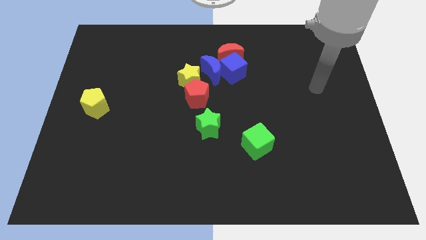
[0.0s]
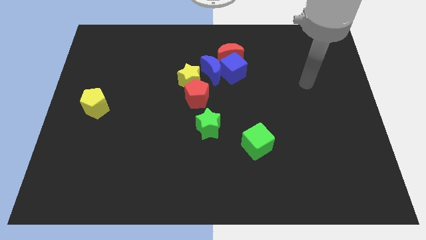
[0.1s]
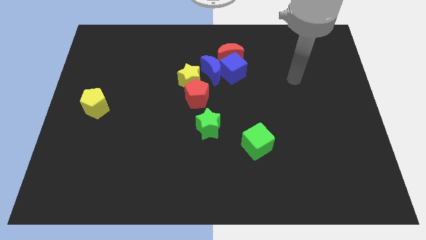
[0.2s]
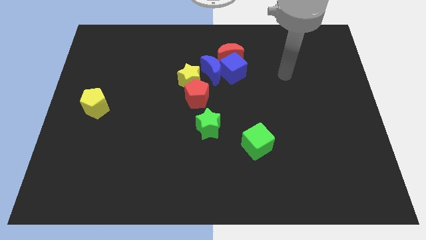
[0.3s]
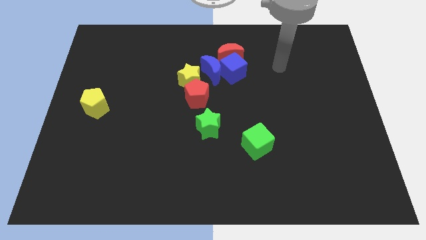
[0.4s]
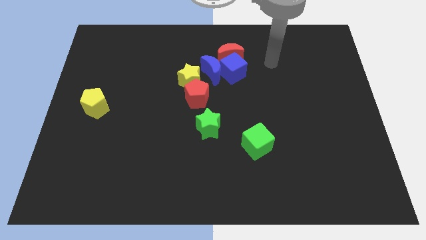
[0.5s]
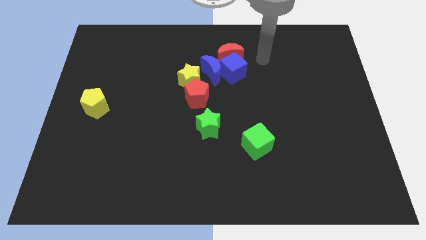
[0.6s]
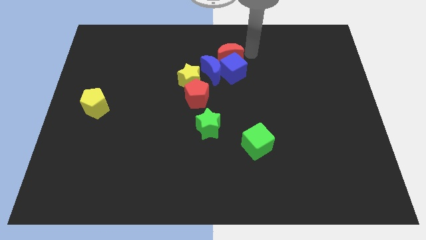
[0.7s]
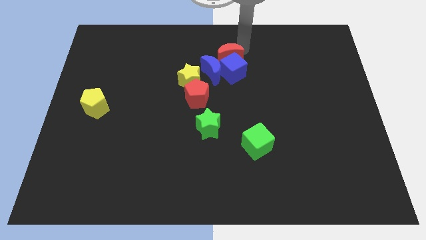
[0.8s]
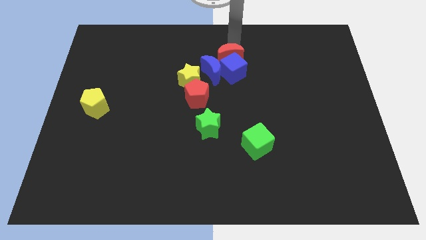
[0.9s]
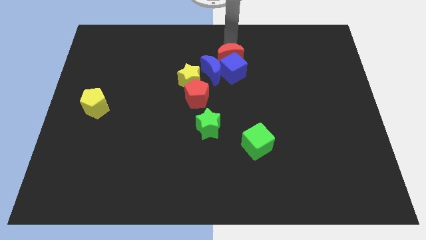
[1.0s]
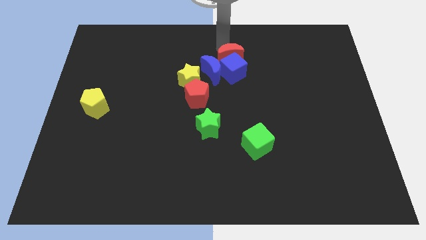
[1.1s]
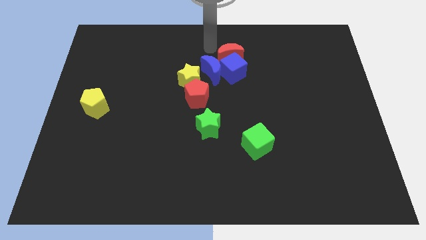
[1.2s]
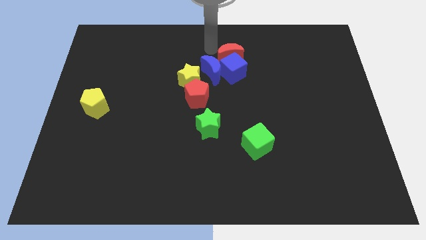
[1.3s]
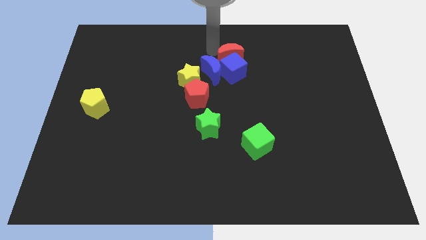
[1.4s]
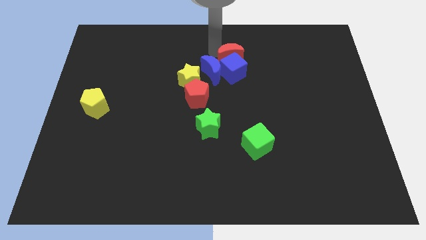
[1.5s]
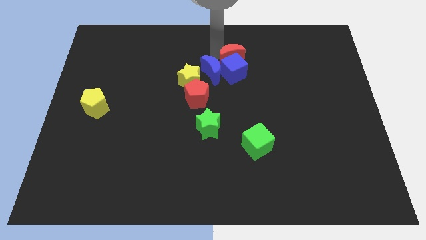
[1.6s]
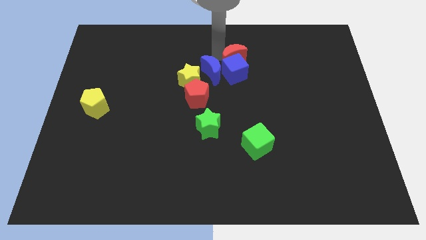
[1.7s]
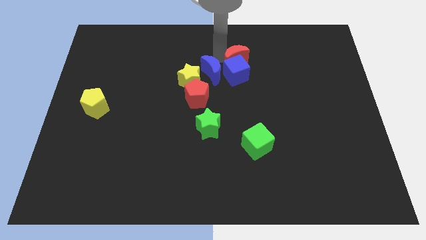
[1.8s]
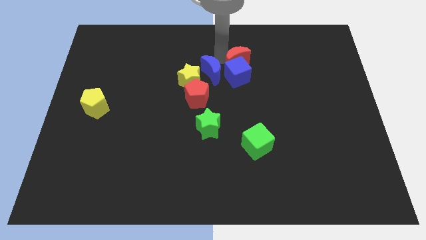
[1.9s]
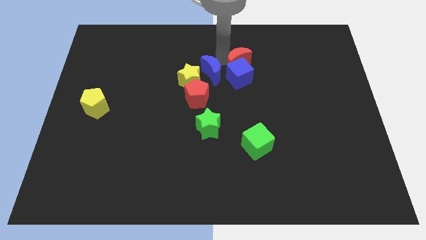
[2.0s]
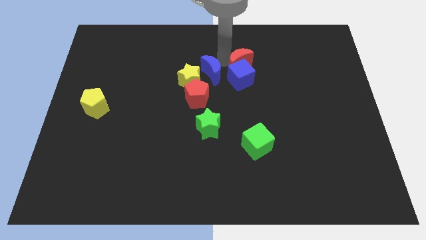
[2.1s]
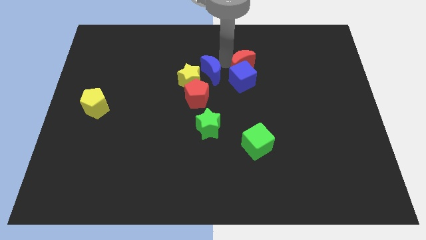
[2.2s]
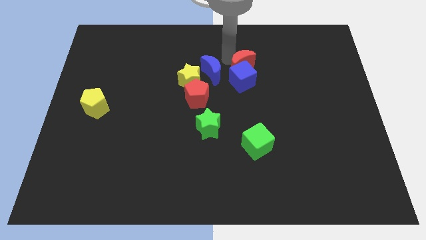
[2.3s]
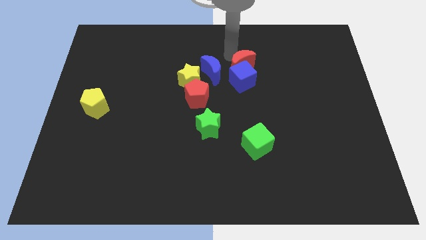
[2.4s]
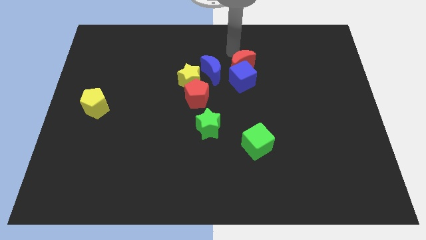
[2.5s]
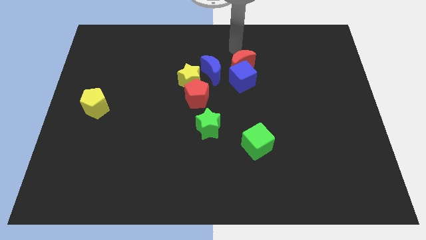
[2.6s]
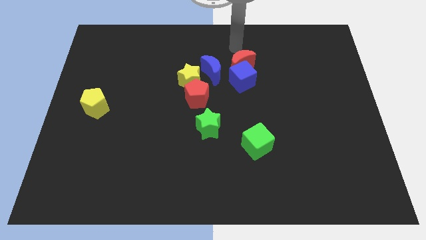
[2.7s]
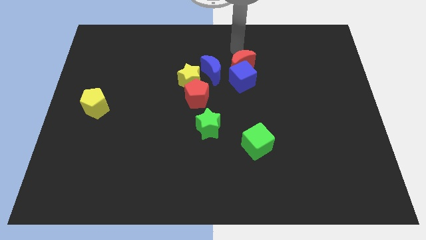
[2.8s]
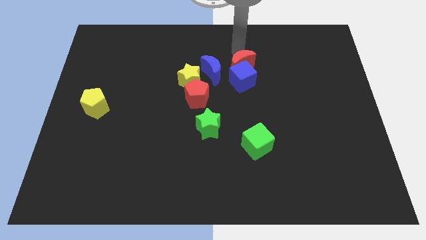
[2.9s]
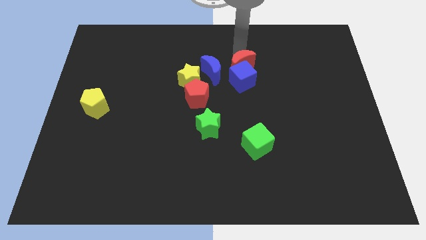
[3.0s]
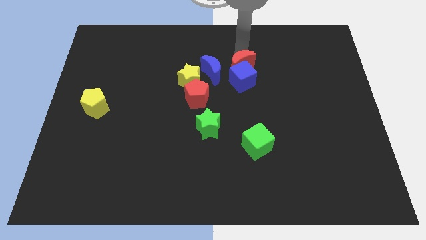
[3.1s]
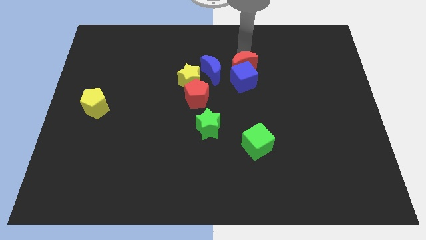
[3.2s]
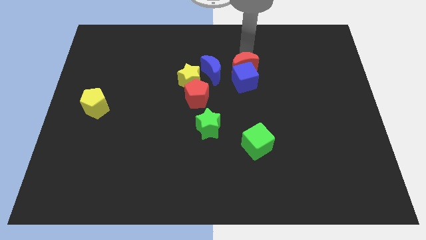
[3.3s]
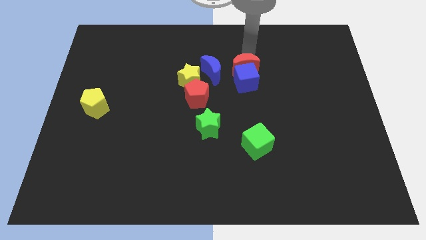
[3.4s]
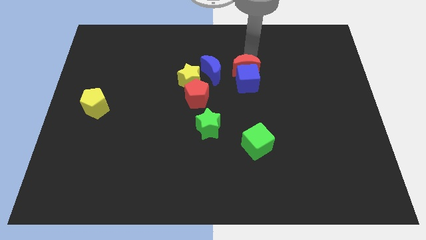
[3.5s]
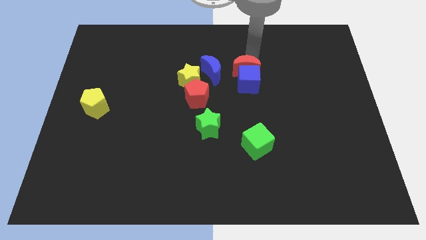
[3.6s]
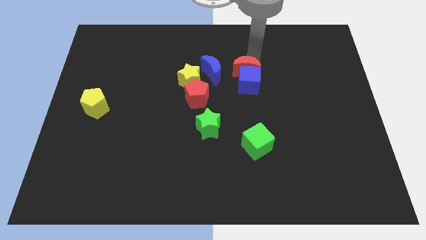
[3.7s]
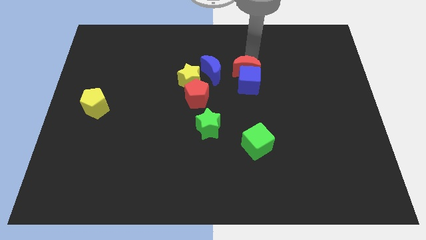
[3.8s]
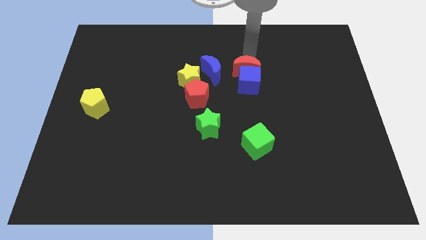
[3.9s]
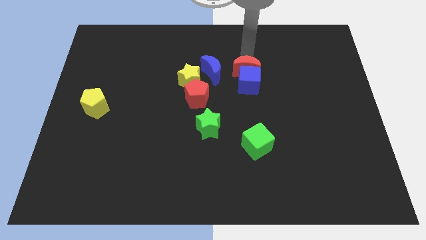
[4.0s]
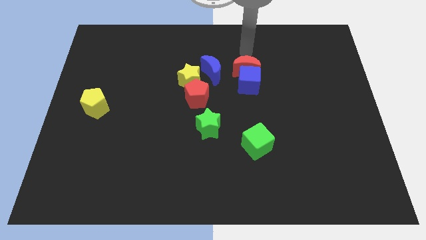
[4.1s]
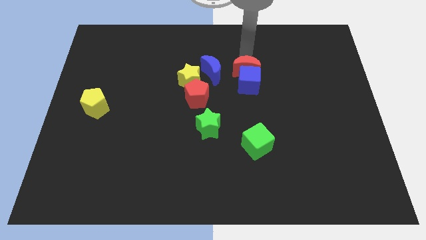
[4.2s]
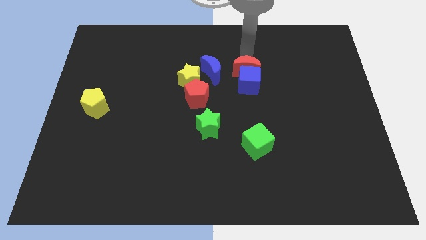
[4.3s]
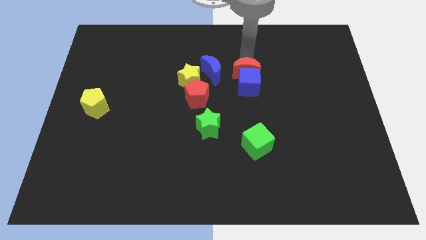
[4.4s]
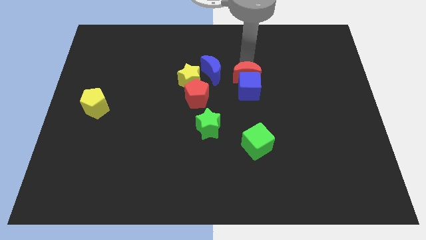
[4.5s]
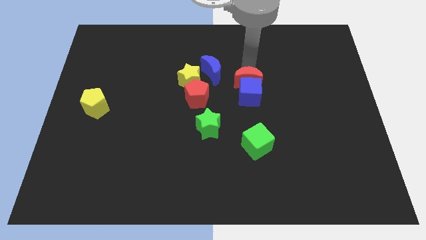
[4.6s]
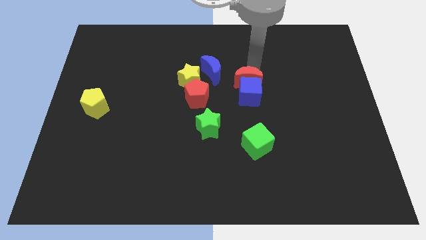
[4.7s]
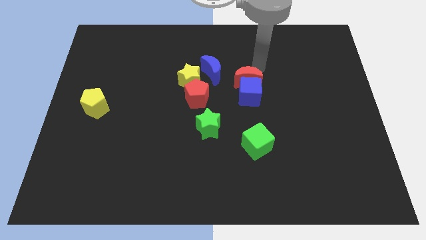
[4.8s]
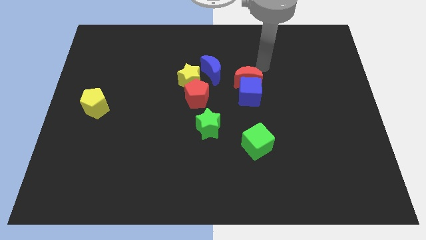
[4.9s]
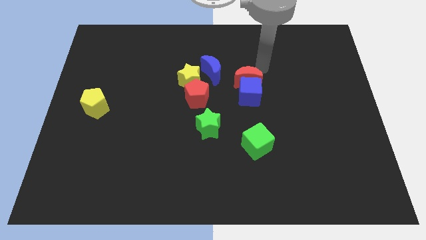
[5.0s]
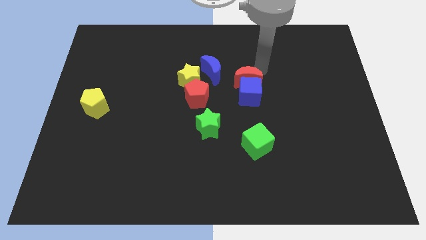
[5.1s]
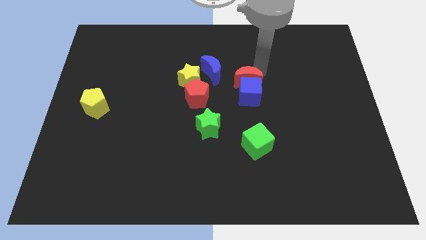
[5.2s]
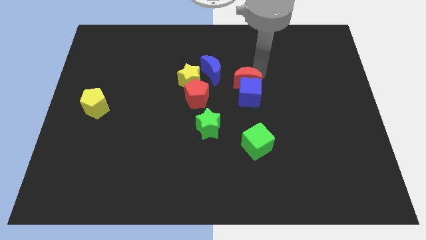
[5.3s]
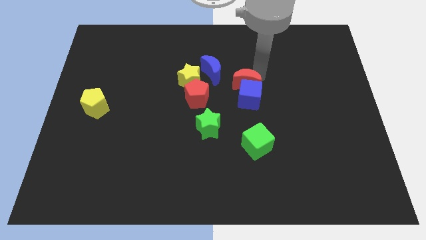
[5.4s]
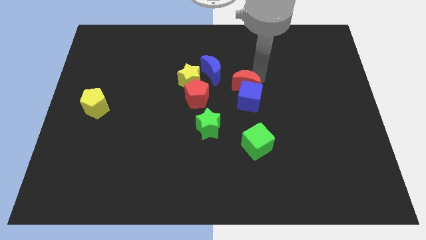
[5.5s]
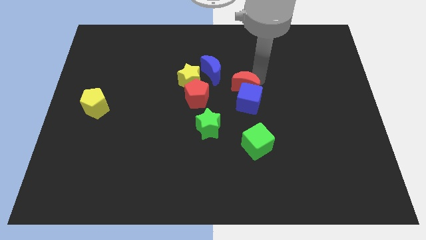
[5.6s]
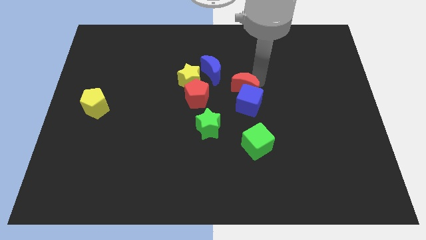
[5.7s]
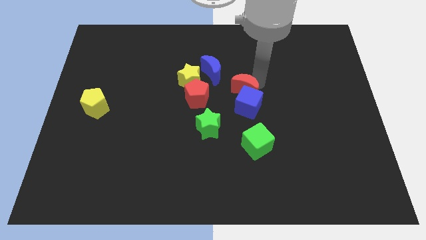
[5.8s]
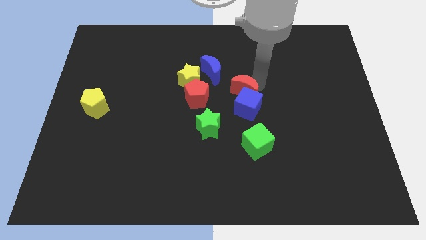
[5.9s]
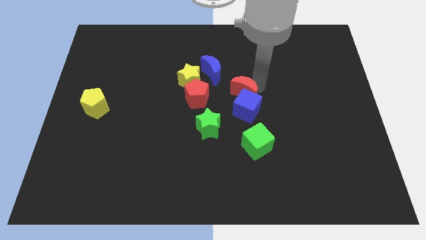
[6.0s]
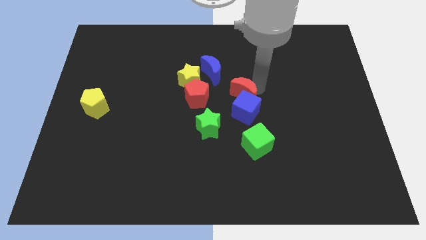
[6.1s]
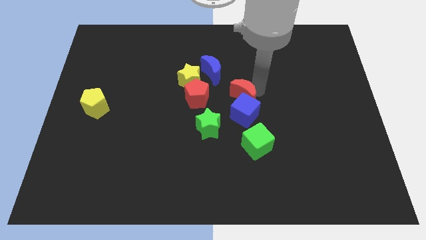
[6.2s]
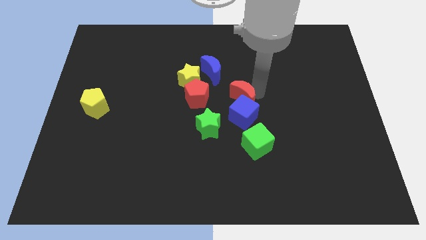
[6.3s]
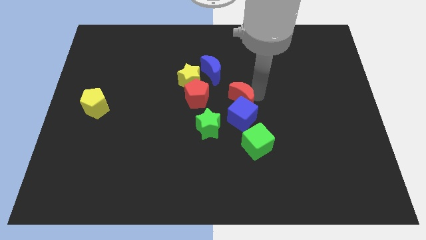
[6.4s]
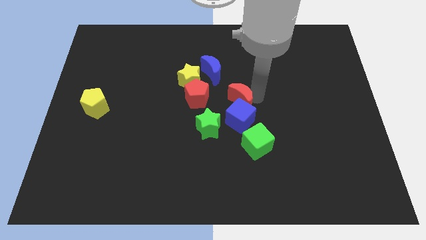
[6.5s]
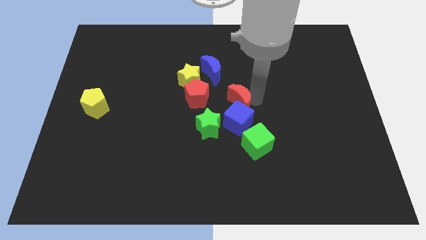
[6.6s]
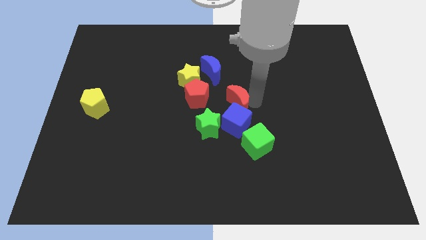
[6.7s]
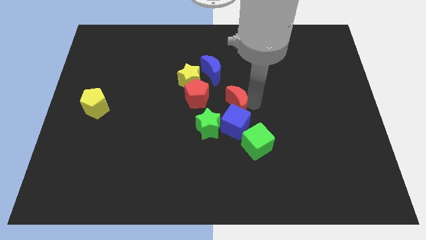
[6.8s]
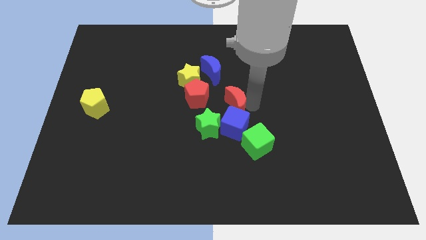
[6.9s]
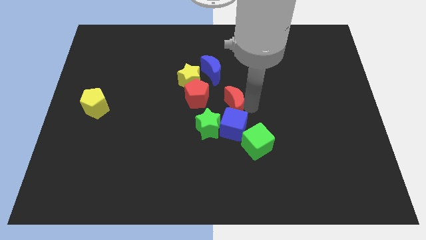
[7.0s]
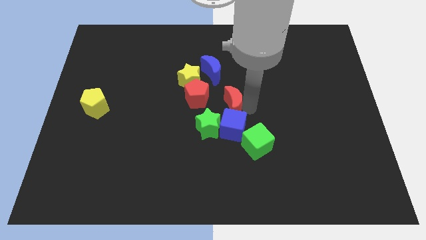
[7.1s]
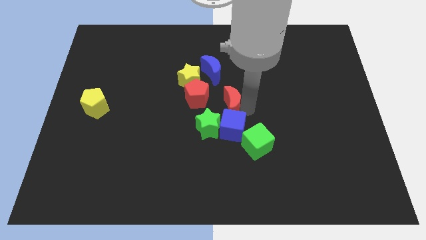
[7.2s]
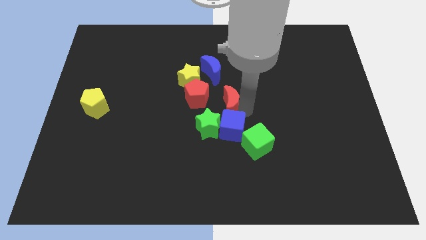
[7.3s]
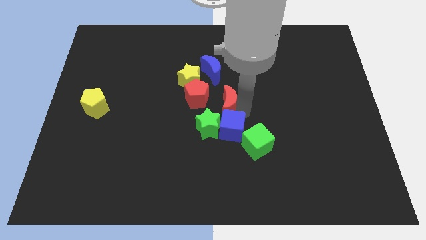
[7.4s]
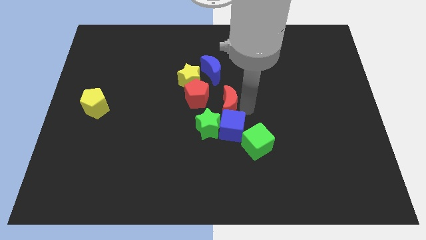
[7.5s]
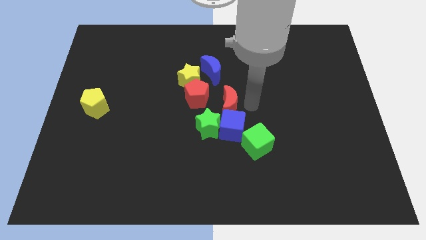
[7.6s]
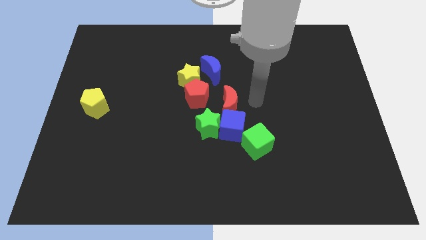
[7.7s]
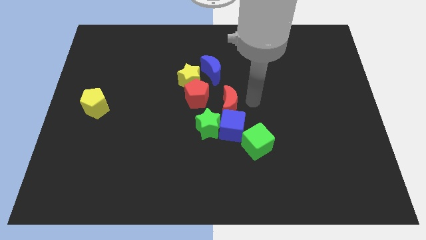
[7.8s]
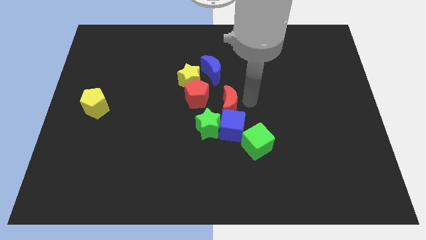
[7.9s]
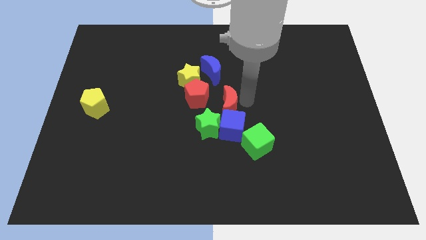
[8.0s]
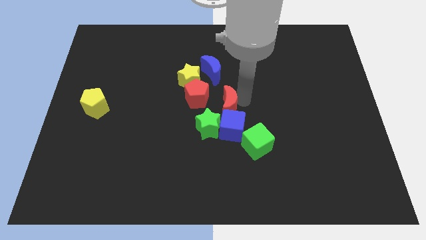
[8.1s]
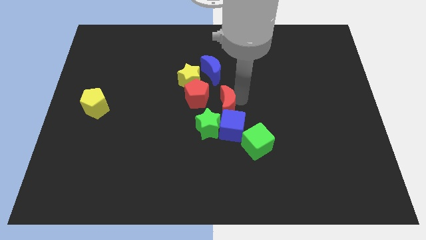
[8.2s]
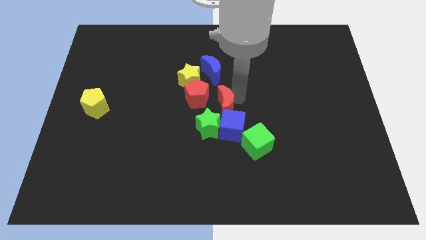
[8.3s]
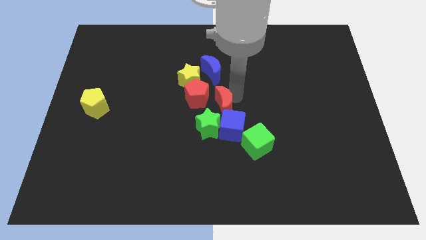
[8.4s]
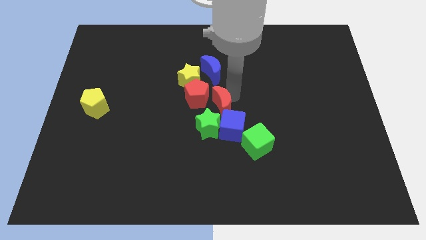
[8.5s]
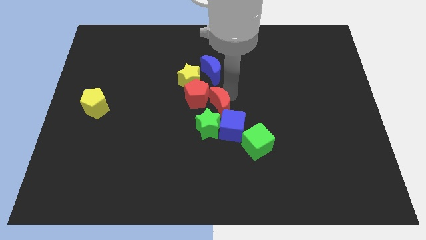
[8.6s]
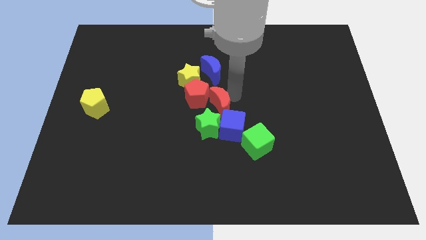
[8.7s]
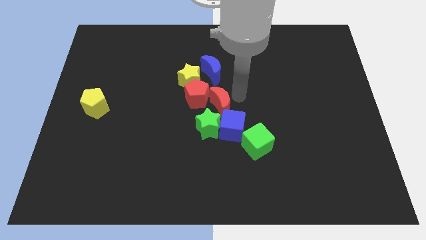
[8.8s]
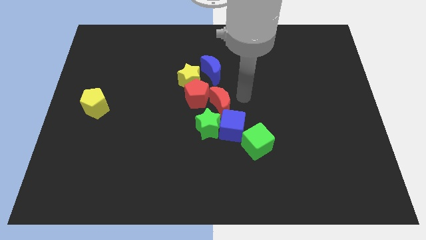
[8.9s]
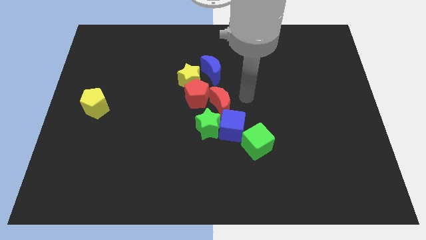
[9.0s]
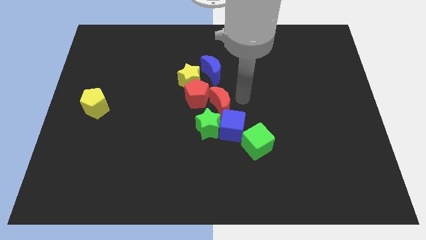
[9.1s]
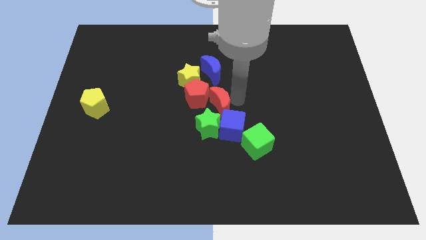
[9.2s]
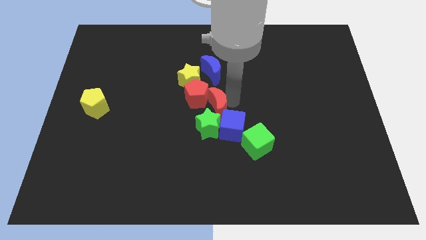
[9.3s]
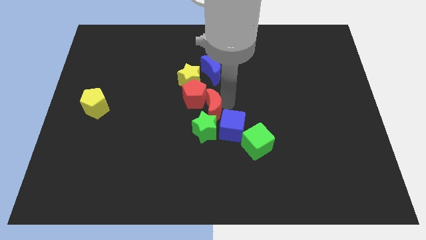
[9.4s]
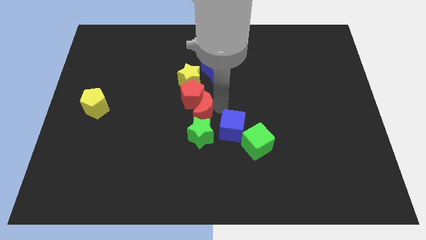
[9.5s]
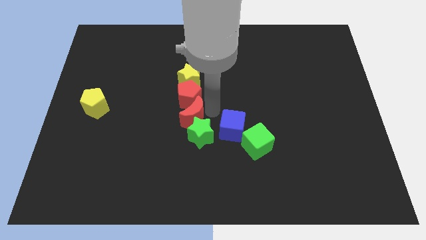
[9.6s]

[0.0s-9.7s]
put the red moon diagonally down and to the left of the red pentagon
